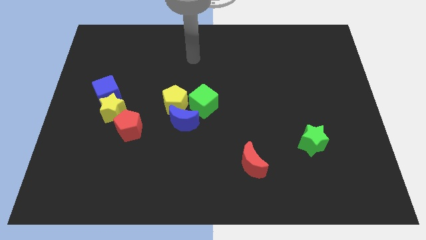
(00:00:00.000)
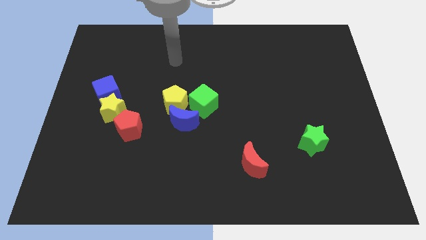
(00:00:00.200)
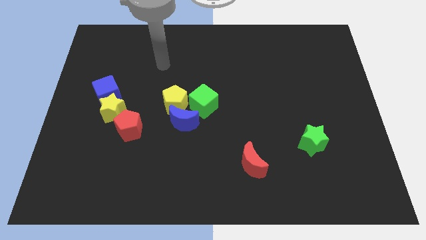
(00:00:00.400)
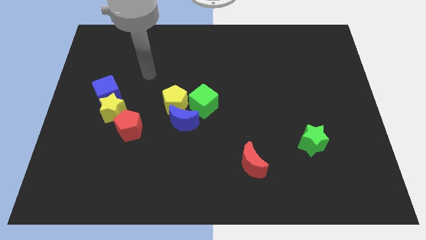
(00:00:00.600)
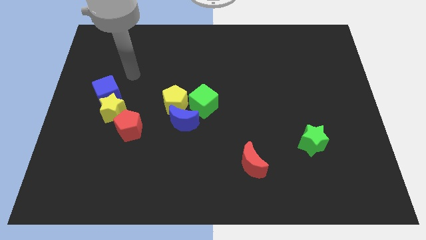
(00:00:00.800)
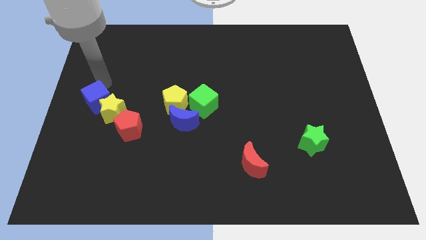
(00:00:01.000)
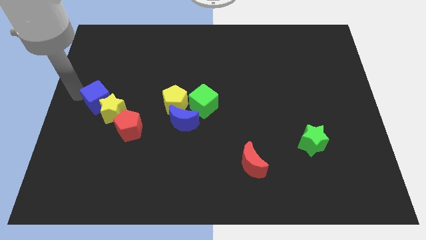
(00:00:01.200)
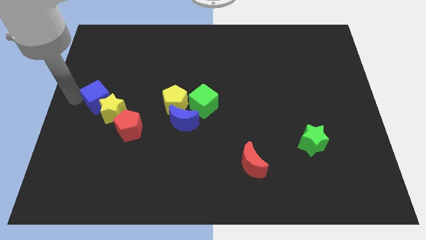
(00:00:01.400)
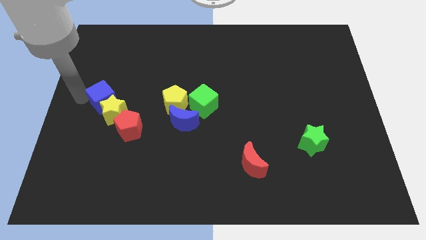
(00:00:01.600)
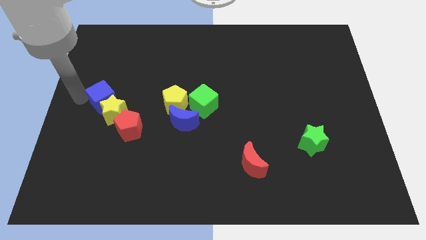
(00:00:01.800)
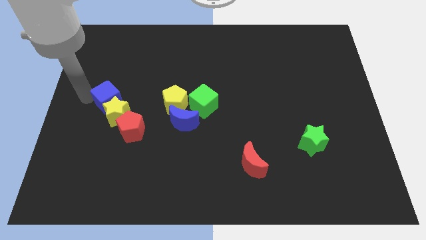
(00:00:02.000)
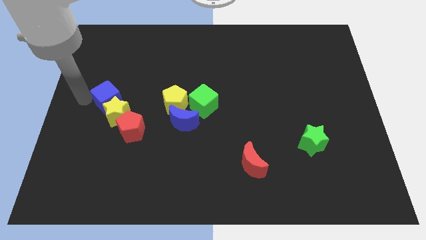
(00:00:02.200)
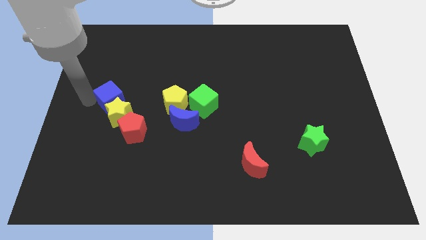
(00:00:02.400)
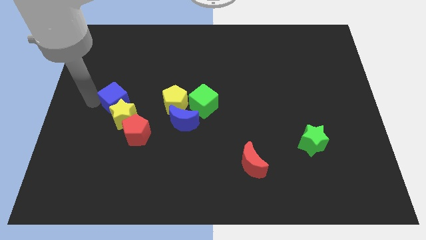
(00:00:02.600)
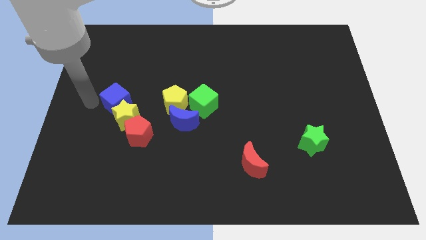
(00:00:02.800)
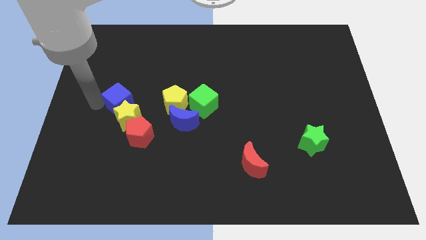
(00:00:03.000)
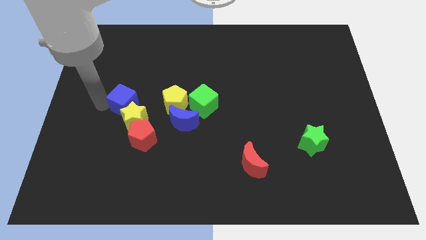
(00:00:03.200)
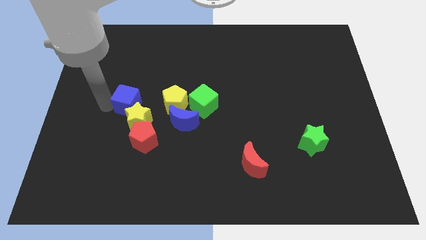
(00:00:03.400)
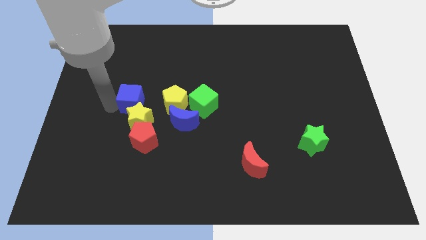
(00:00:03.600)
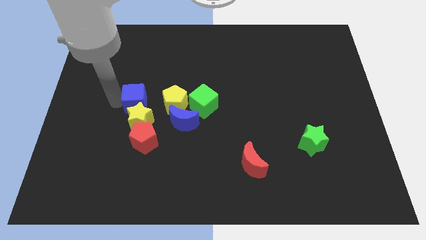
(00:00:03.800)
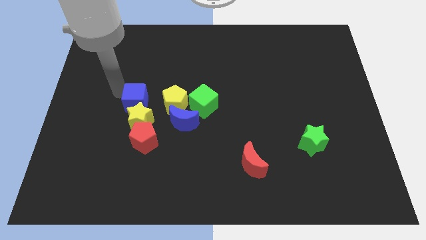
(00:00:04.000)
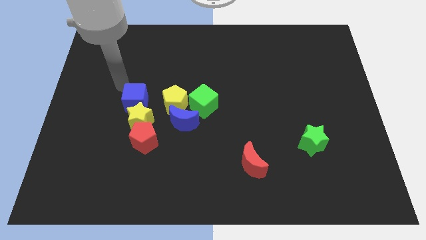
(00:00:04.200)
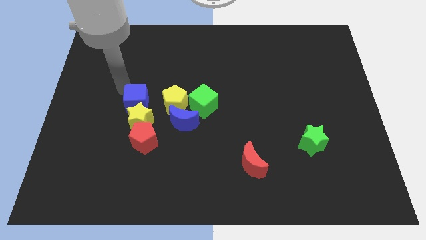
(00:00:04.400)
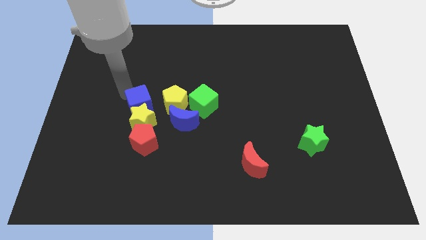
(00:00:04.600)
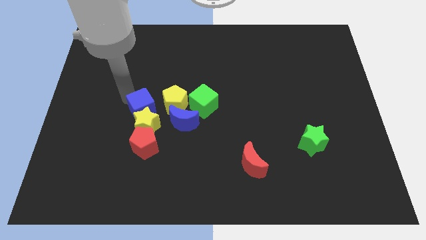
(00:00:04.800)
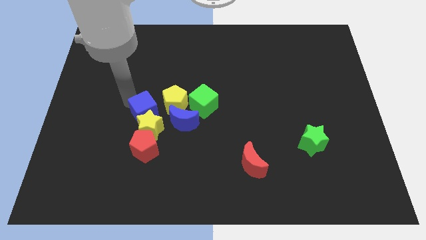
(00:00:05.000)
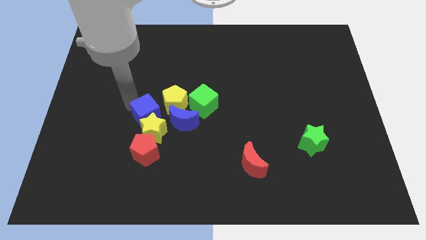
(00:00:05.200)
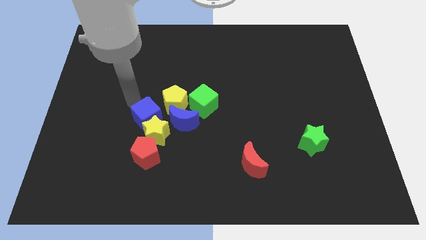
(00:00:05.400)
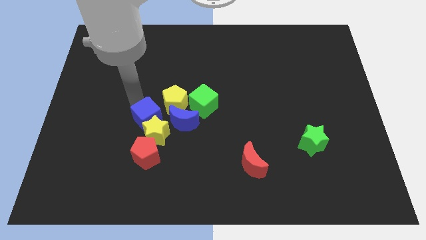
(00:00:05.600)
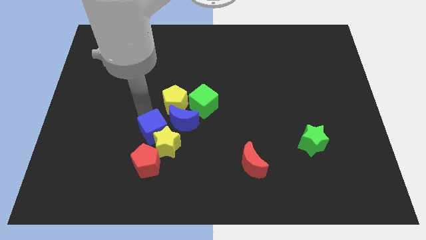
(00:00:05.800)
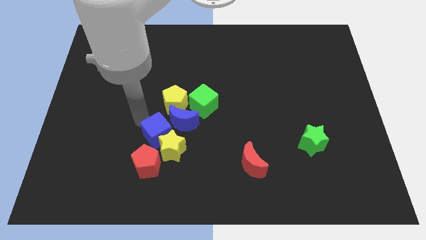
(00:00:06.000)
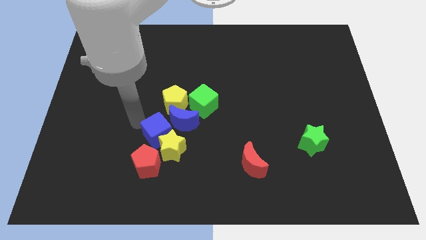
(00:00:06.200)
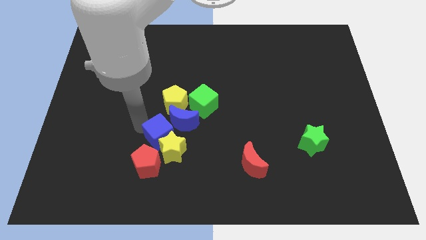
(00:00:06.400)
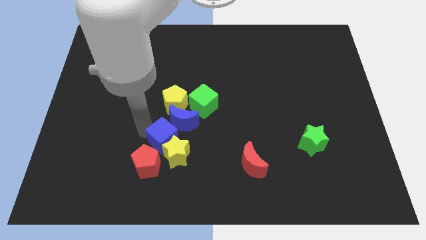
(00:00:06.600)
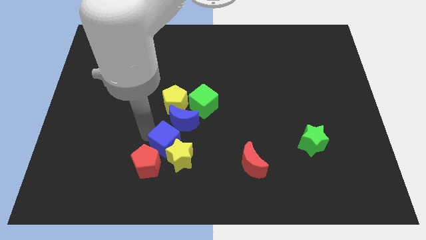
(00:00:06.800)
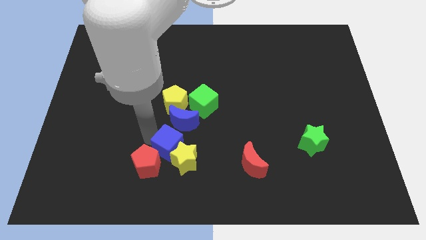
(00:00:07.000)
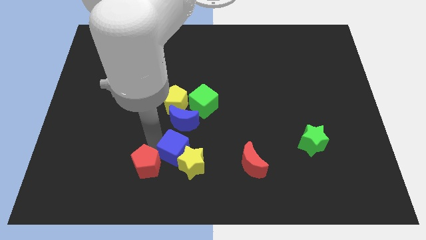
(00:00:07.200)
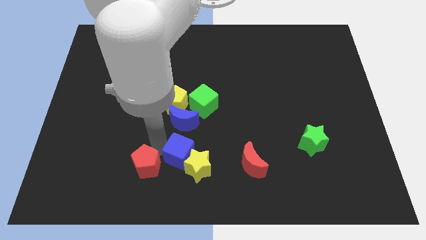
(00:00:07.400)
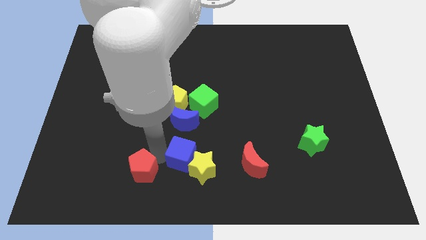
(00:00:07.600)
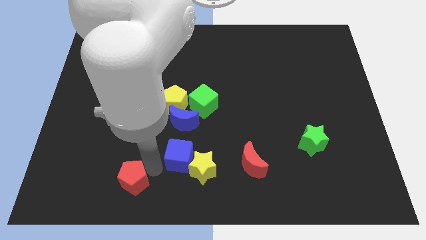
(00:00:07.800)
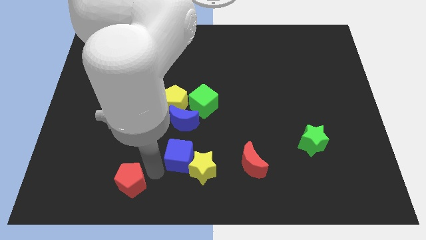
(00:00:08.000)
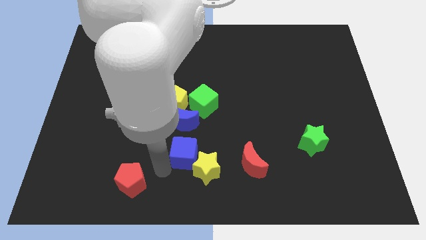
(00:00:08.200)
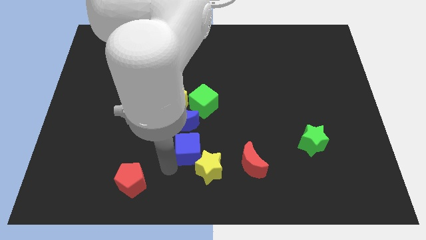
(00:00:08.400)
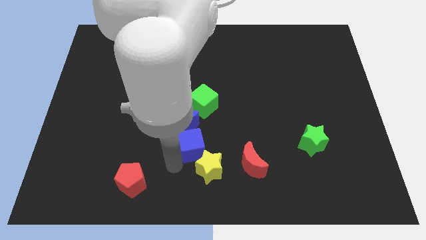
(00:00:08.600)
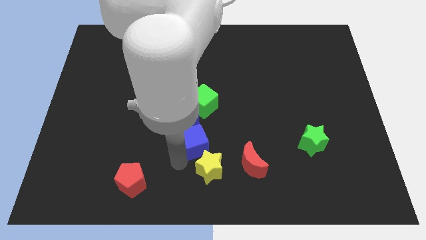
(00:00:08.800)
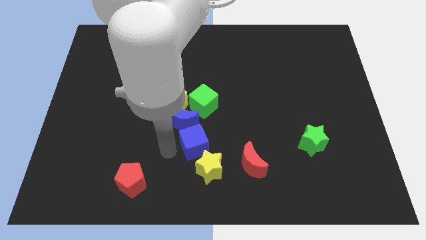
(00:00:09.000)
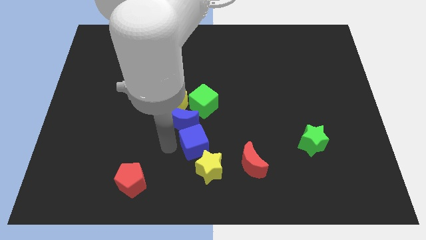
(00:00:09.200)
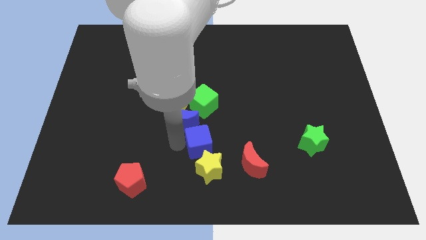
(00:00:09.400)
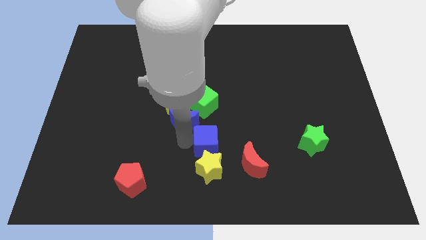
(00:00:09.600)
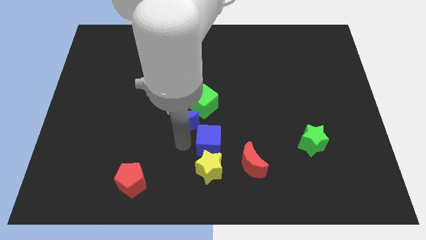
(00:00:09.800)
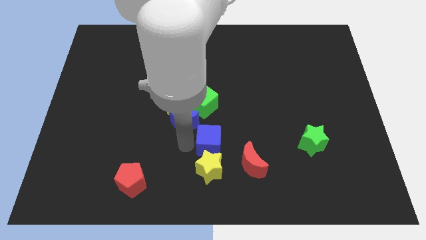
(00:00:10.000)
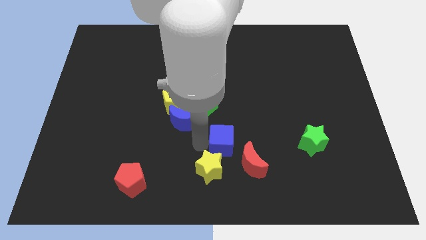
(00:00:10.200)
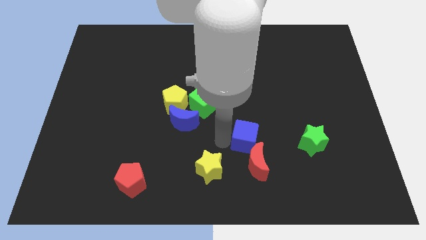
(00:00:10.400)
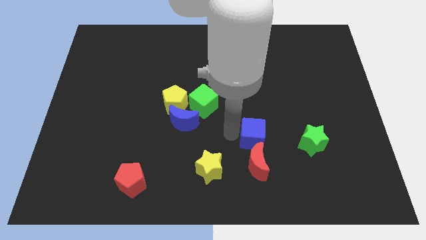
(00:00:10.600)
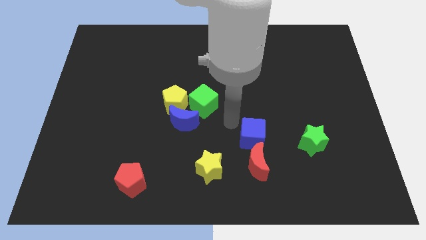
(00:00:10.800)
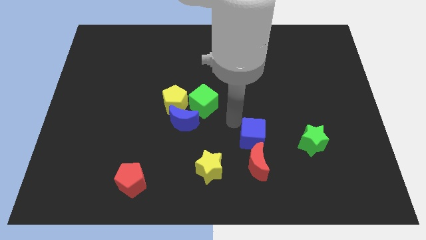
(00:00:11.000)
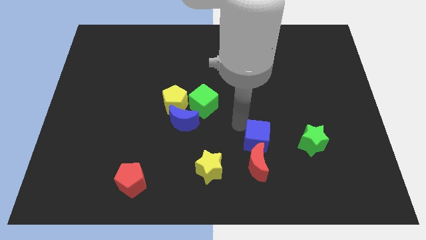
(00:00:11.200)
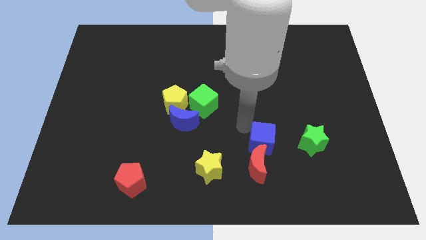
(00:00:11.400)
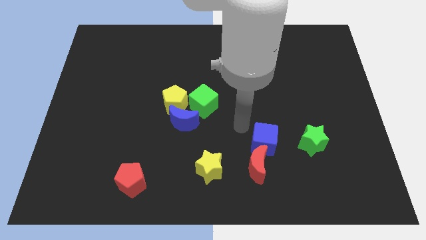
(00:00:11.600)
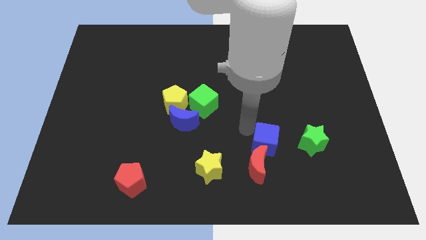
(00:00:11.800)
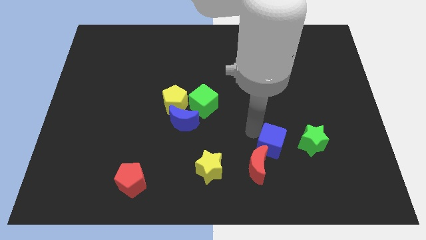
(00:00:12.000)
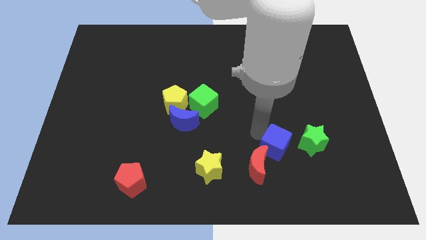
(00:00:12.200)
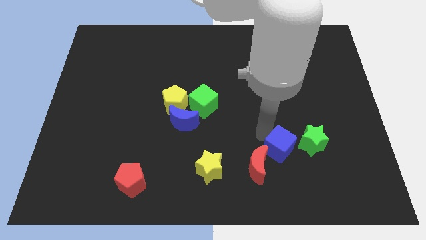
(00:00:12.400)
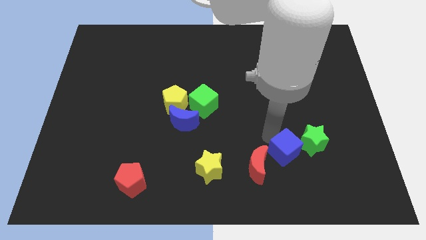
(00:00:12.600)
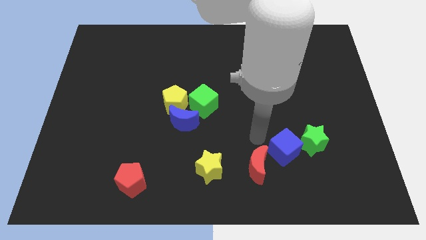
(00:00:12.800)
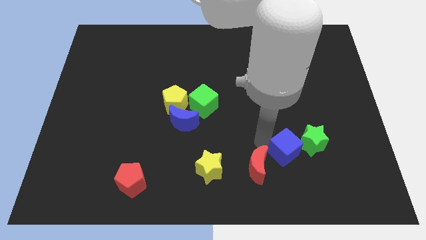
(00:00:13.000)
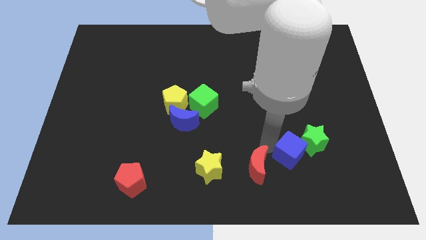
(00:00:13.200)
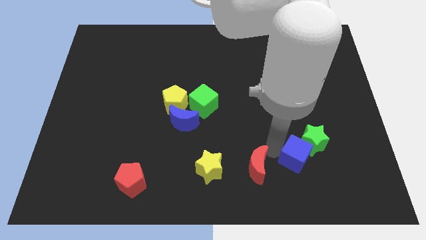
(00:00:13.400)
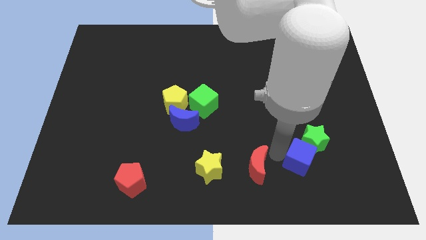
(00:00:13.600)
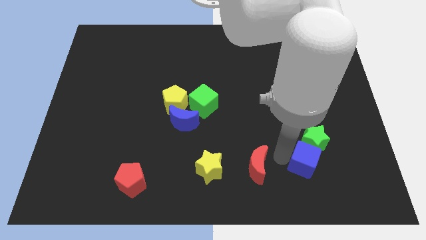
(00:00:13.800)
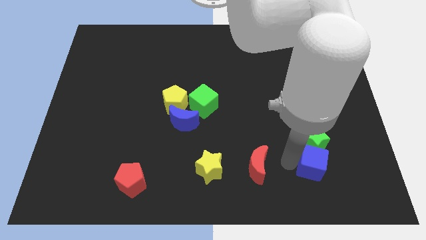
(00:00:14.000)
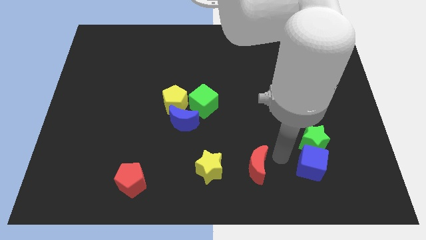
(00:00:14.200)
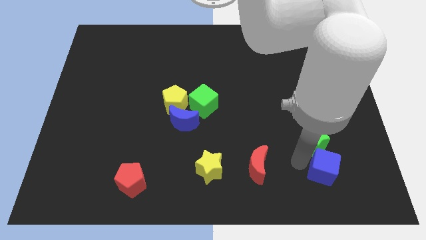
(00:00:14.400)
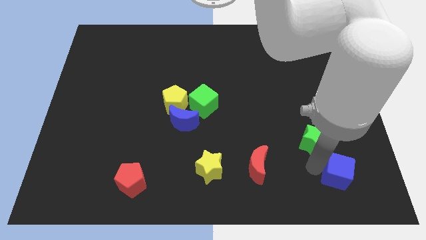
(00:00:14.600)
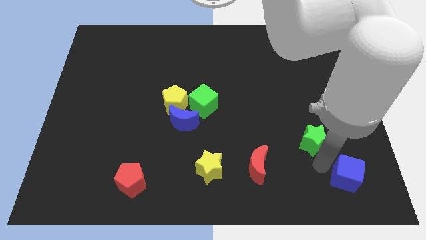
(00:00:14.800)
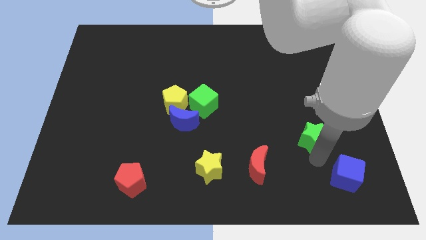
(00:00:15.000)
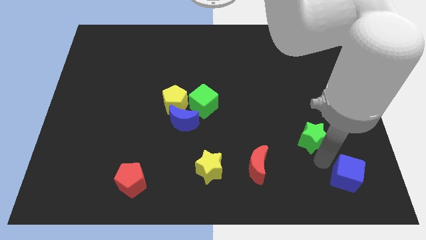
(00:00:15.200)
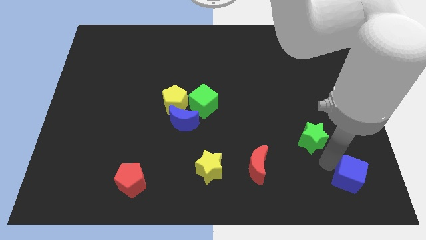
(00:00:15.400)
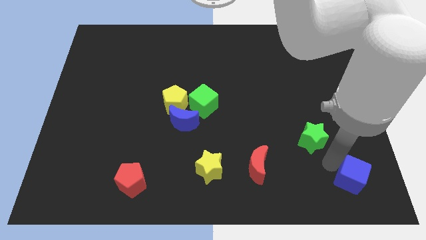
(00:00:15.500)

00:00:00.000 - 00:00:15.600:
move the blue cube to the bottom right of the board
